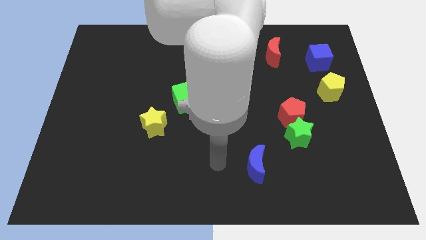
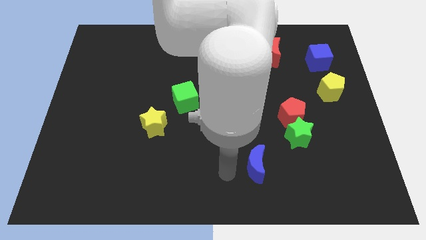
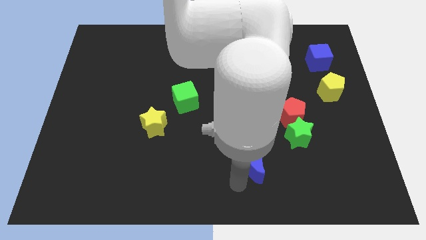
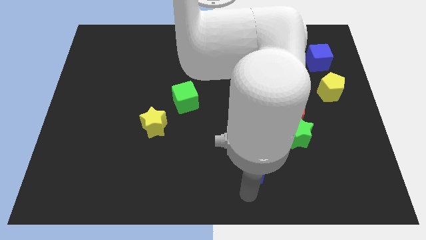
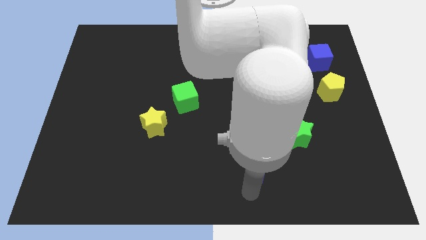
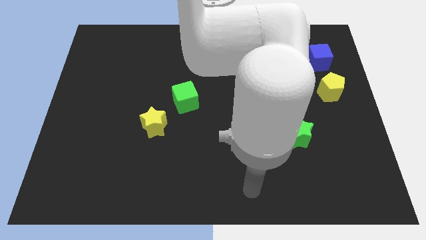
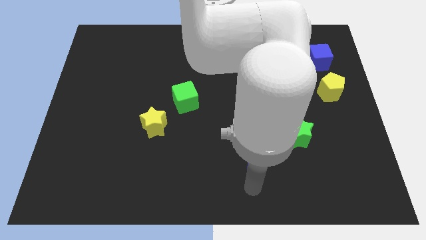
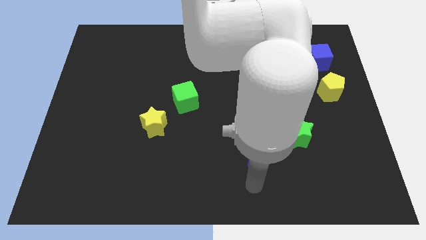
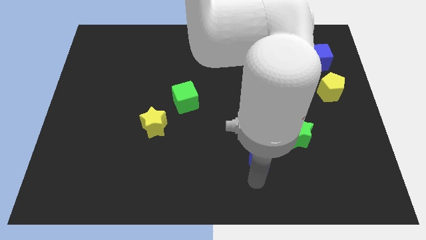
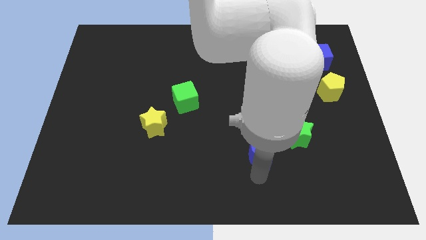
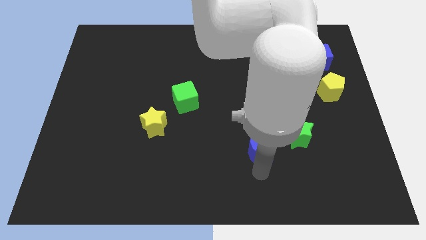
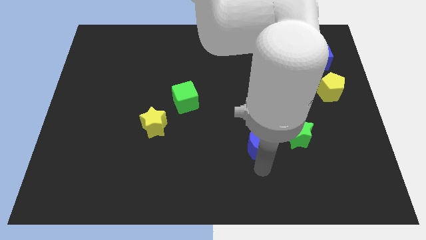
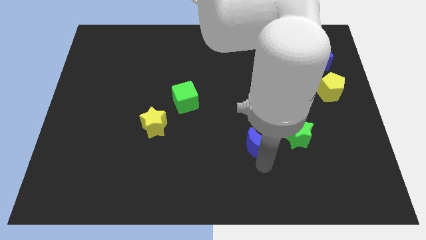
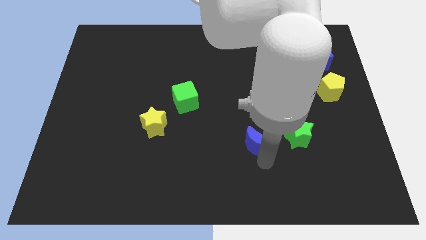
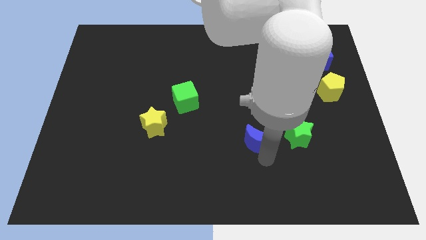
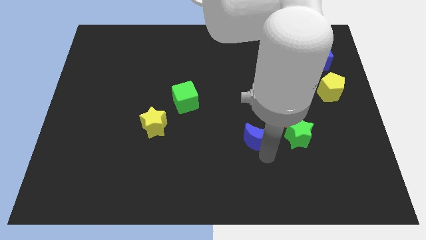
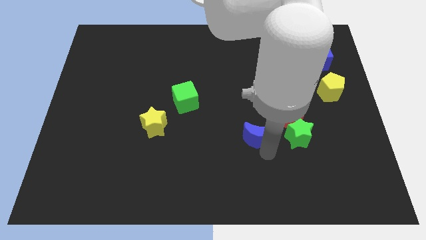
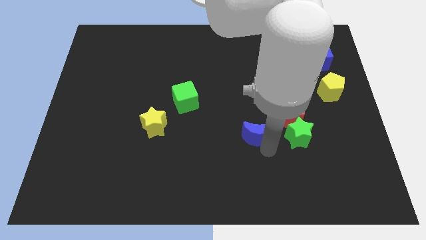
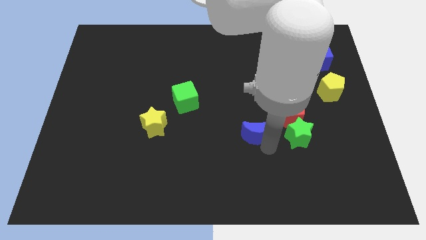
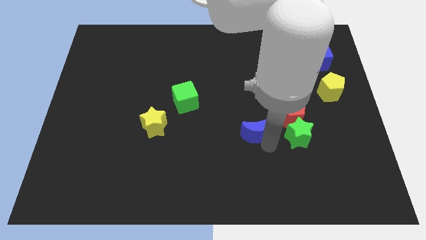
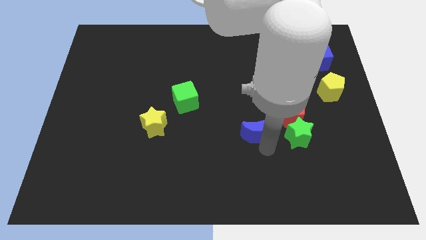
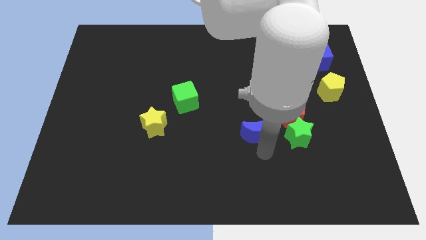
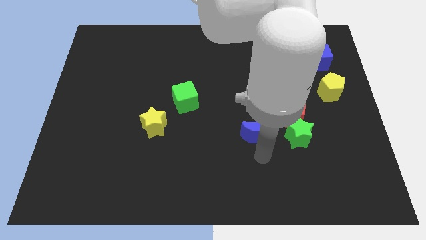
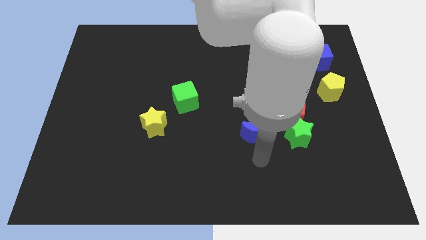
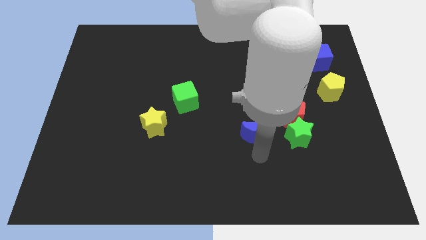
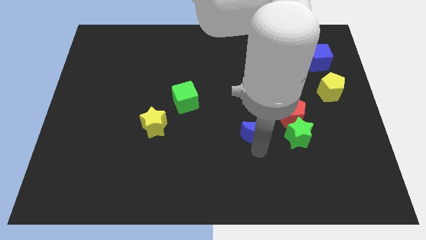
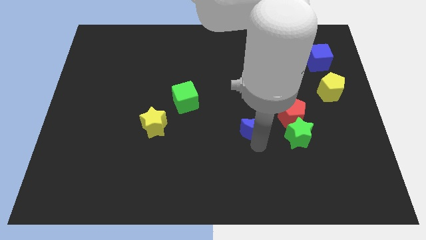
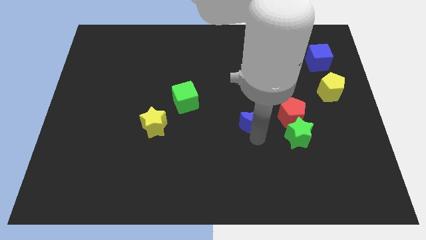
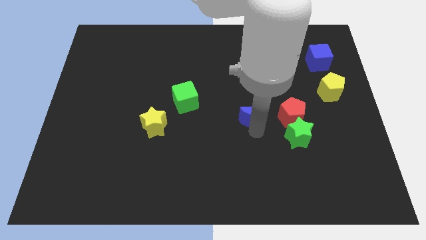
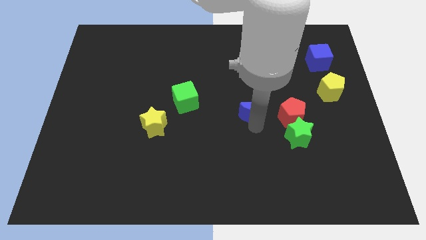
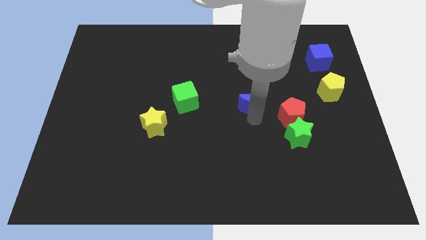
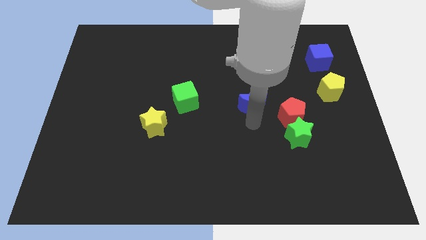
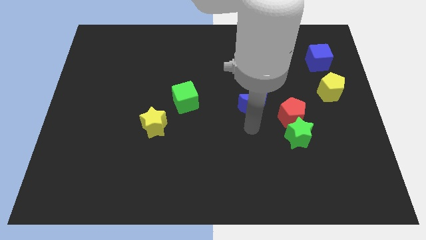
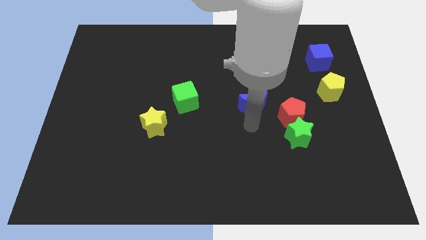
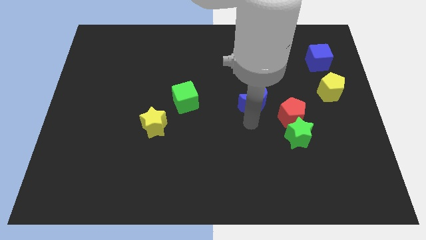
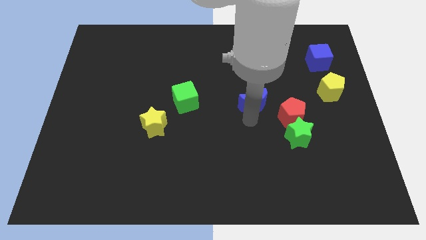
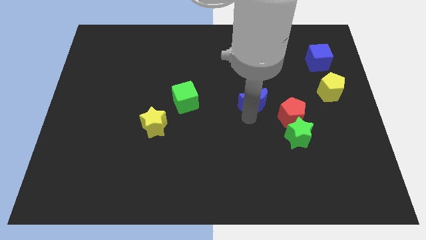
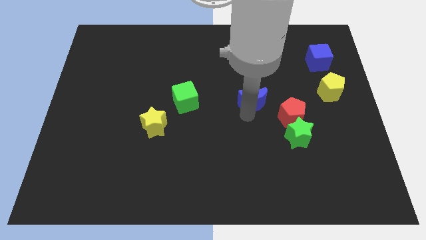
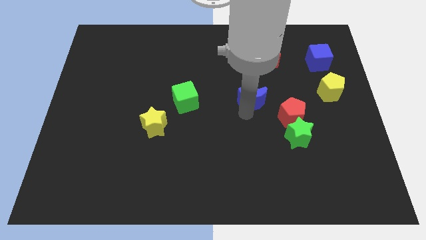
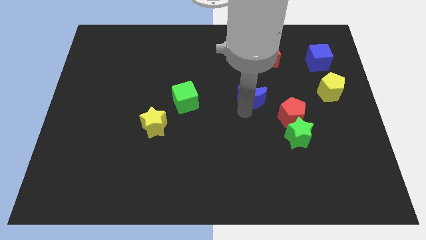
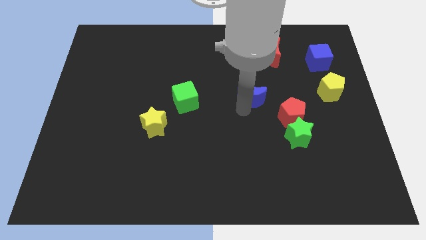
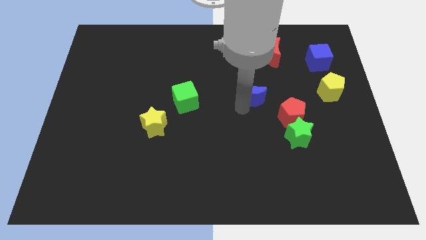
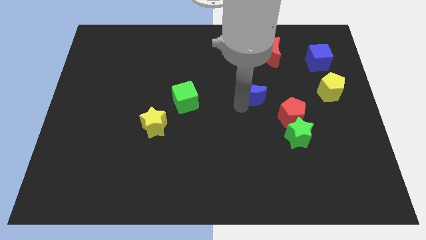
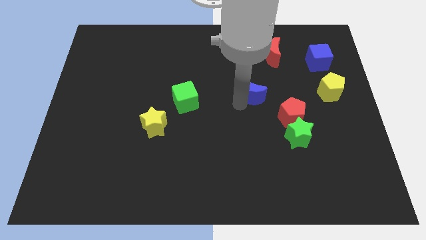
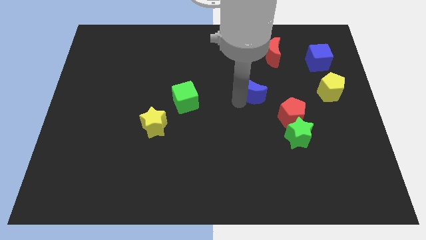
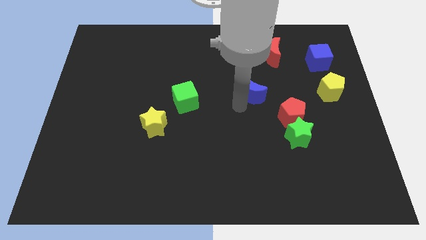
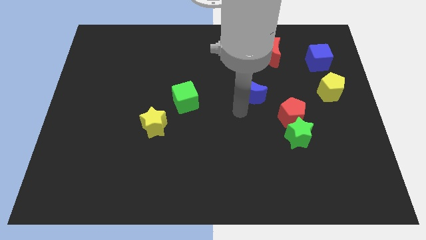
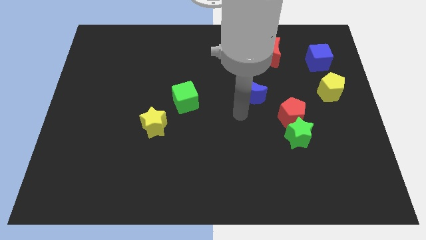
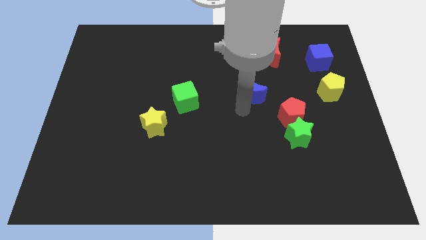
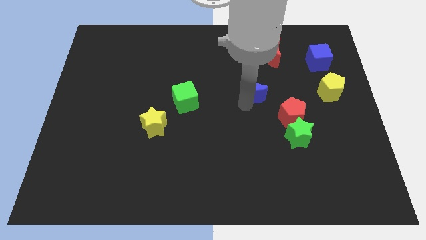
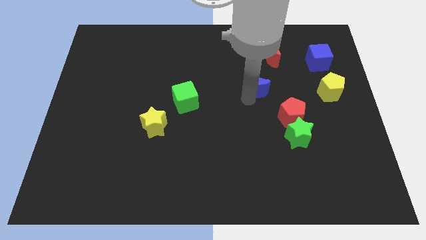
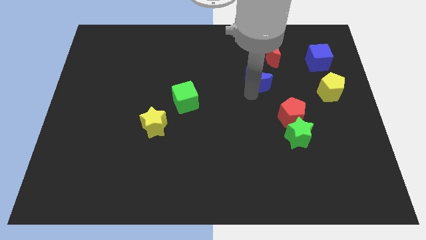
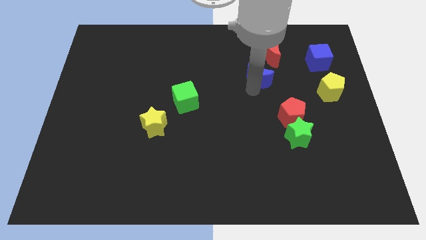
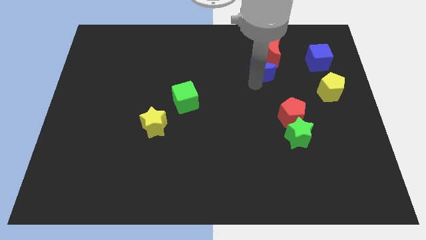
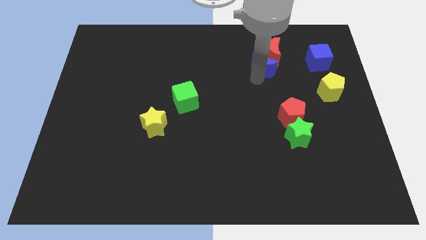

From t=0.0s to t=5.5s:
push the blue moon next to the red moon

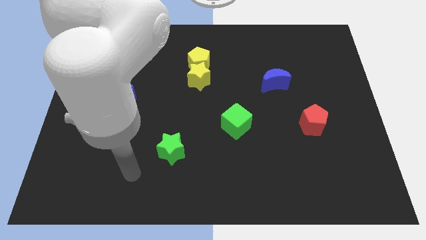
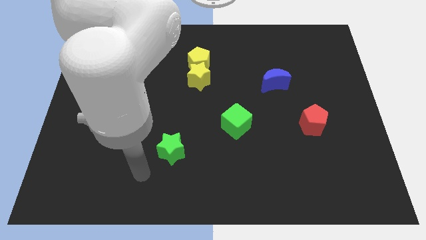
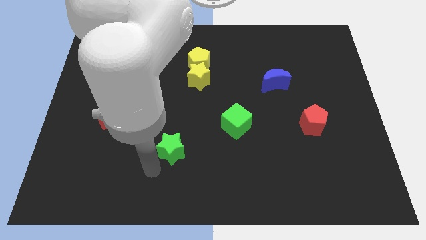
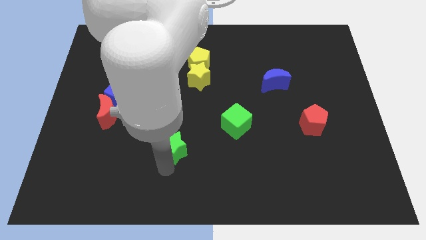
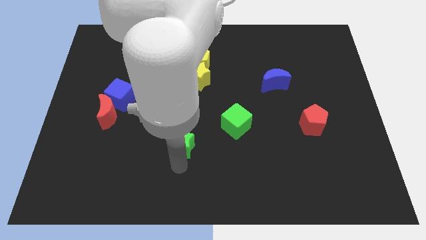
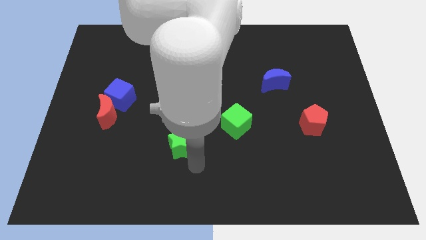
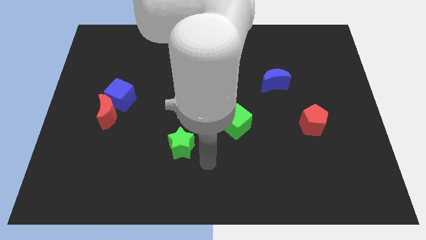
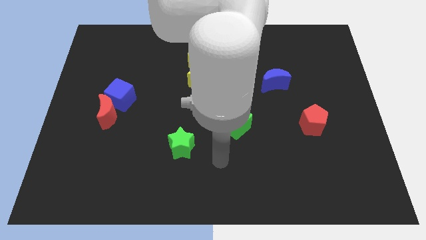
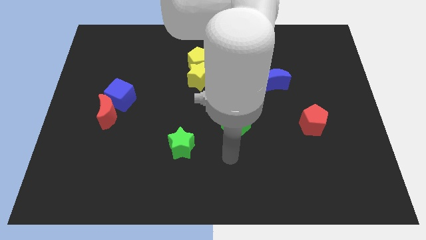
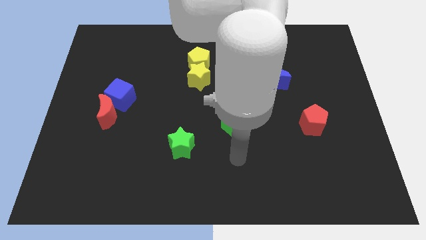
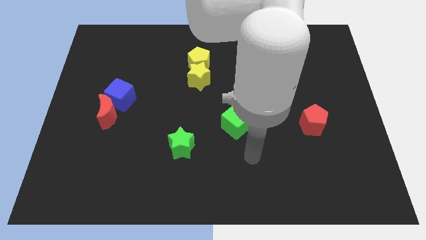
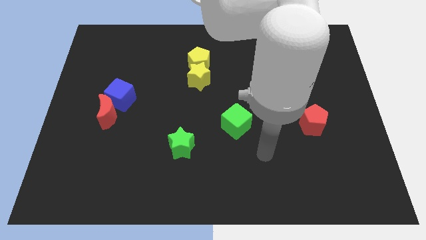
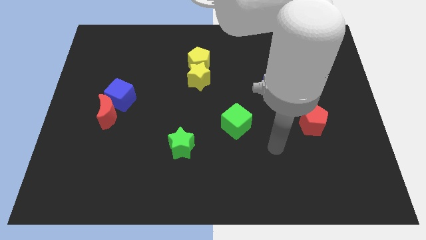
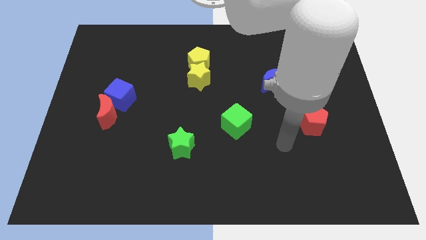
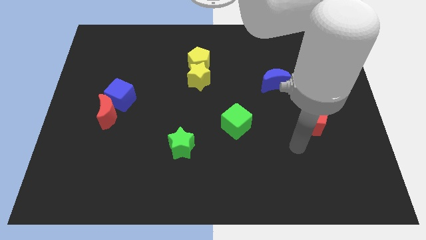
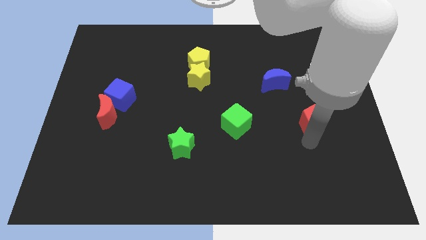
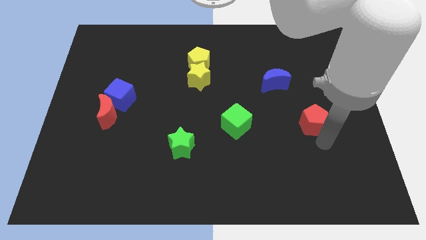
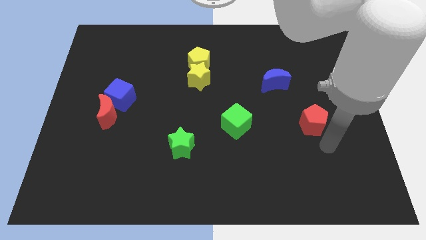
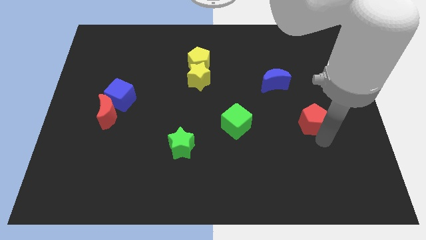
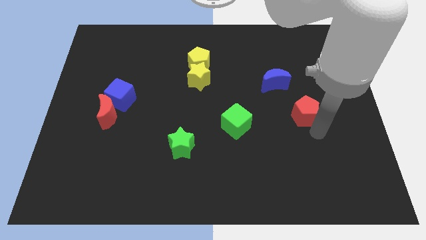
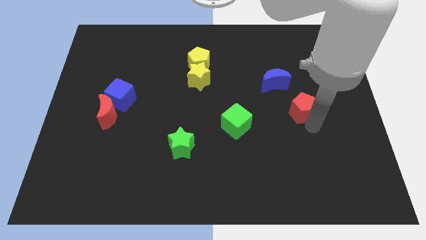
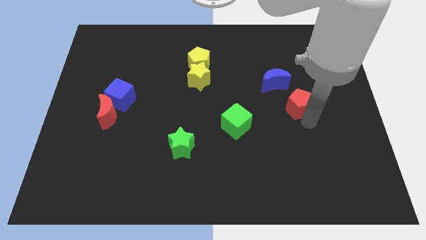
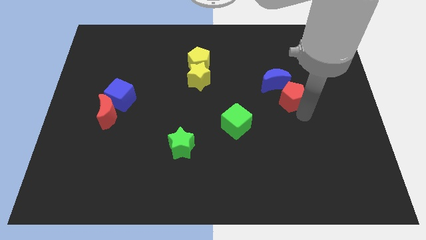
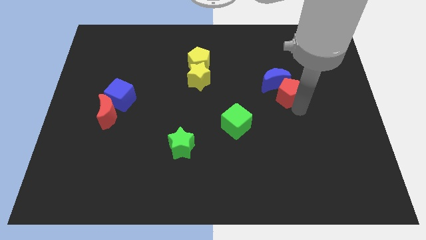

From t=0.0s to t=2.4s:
slide the red pentagon towards the blue moon
